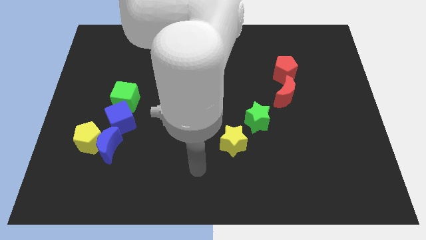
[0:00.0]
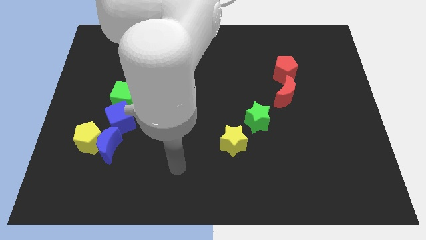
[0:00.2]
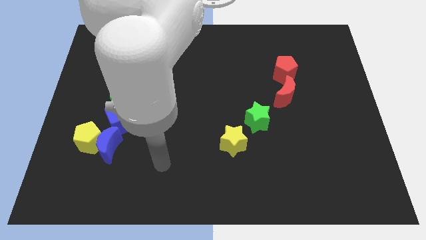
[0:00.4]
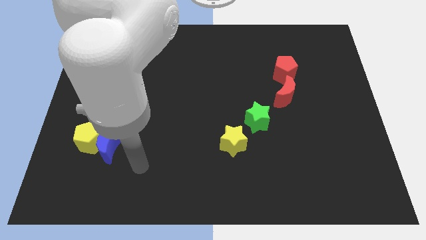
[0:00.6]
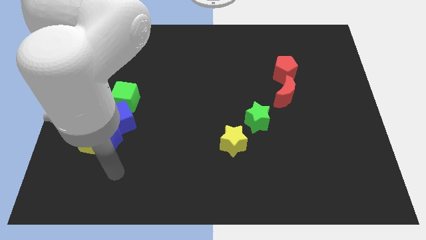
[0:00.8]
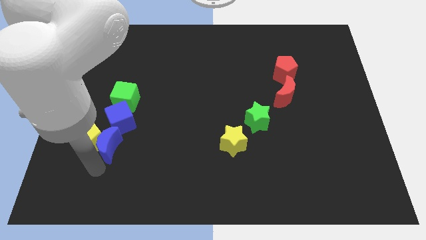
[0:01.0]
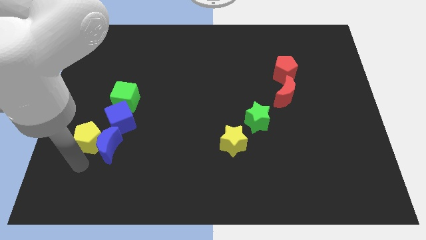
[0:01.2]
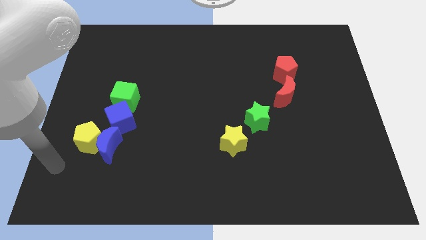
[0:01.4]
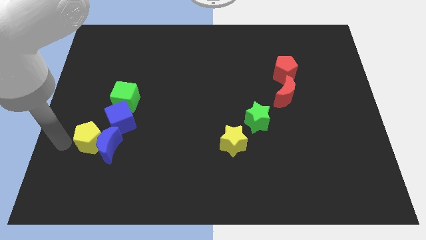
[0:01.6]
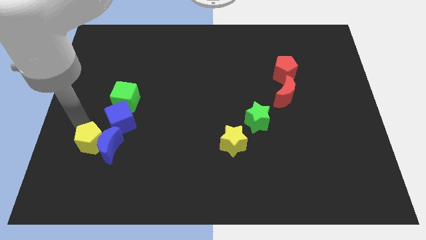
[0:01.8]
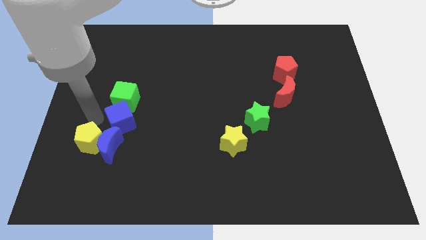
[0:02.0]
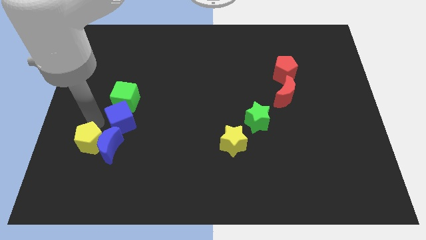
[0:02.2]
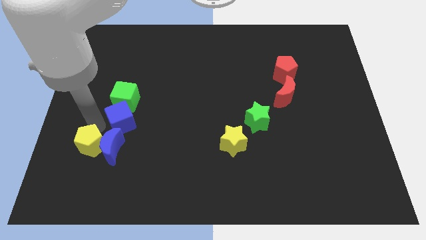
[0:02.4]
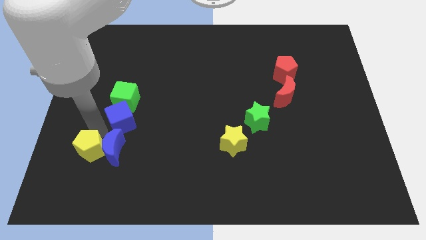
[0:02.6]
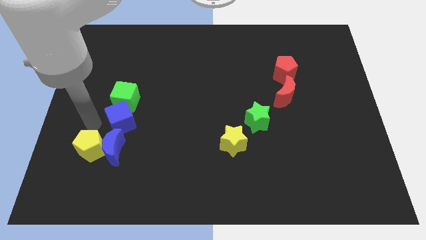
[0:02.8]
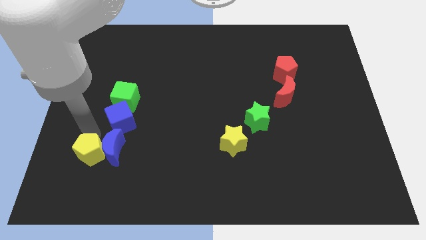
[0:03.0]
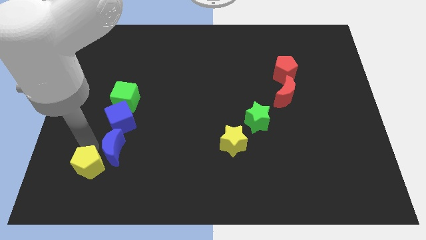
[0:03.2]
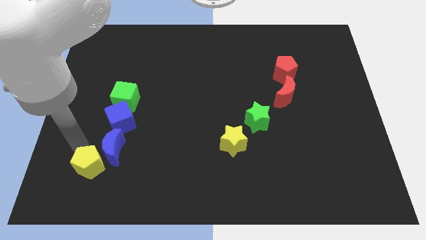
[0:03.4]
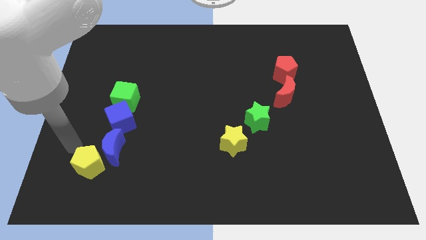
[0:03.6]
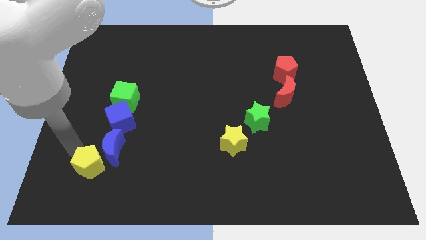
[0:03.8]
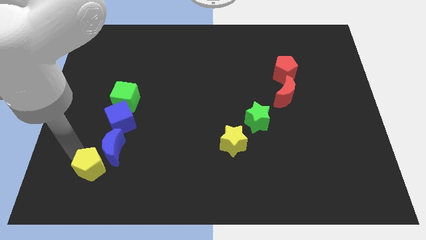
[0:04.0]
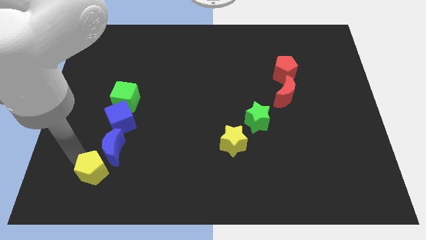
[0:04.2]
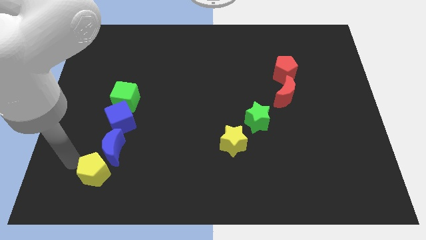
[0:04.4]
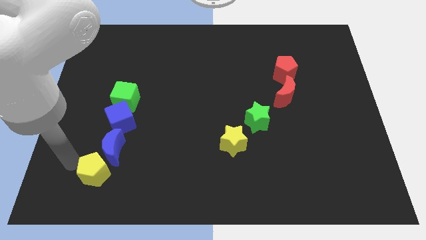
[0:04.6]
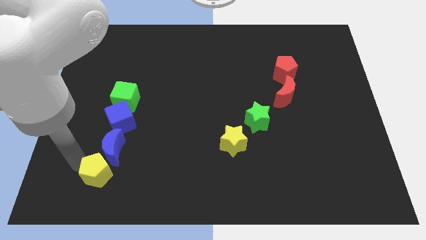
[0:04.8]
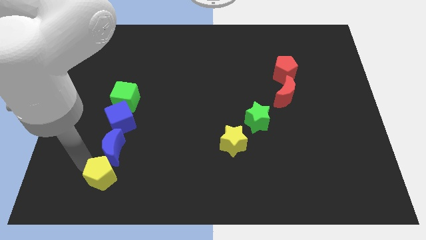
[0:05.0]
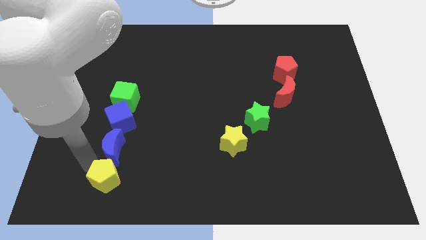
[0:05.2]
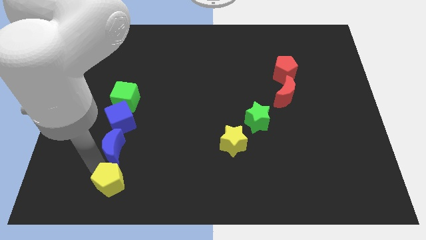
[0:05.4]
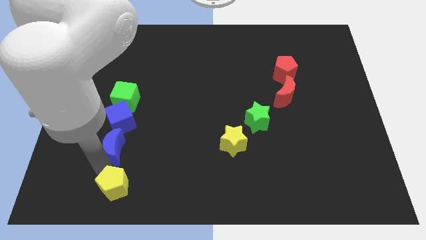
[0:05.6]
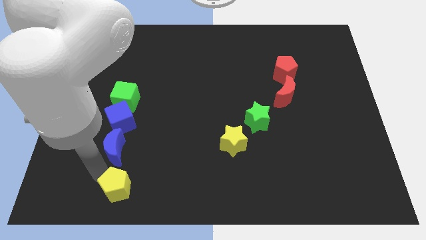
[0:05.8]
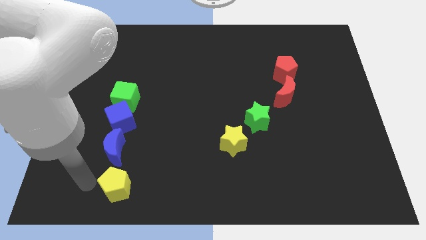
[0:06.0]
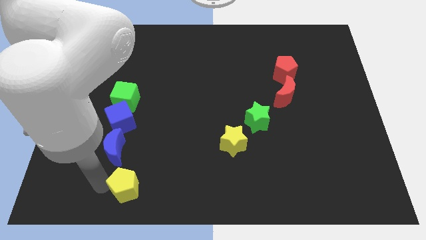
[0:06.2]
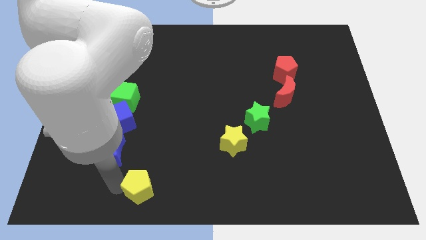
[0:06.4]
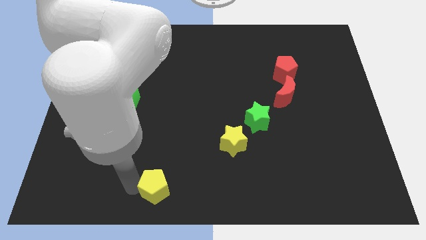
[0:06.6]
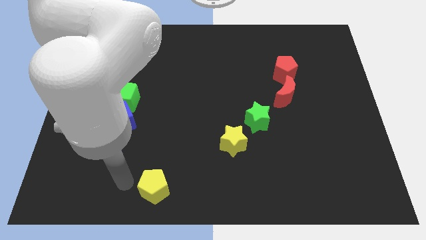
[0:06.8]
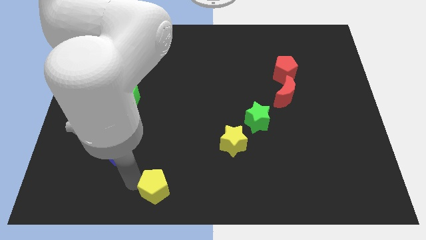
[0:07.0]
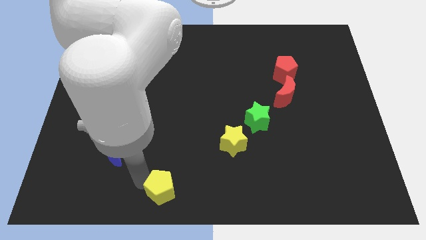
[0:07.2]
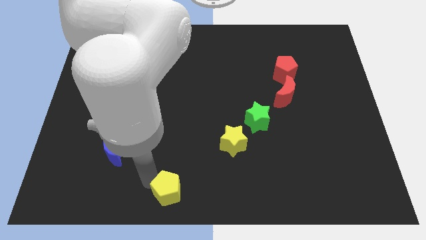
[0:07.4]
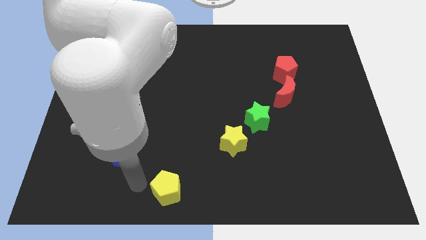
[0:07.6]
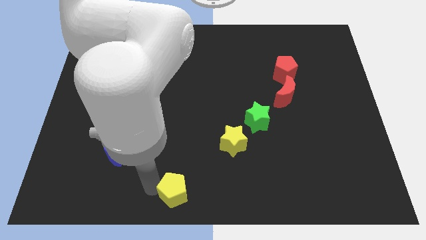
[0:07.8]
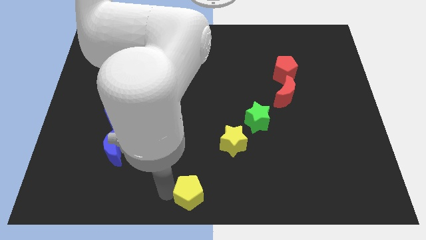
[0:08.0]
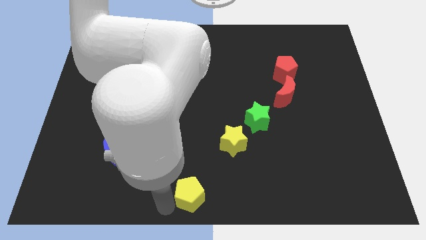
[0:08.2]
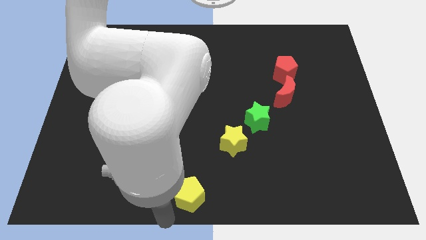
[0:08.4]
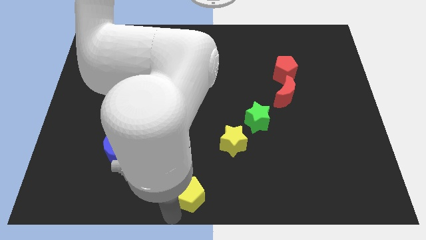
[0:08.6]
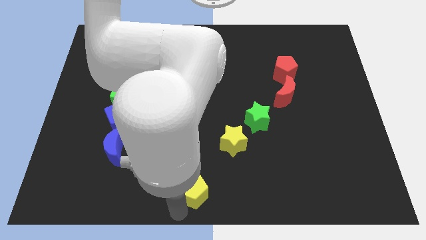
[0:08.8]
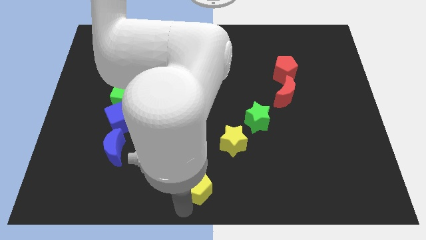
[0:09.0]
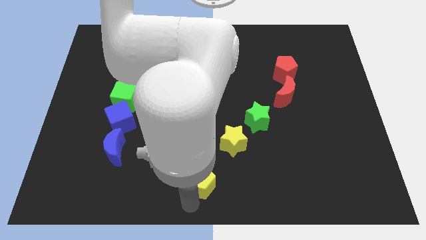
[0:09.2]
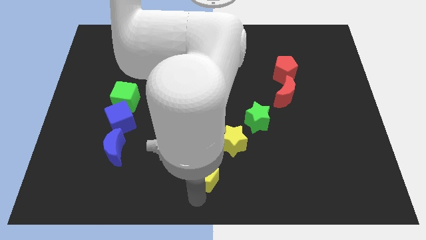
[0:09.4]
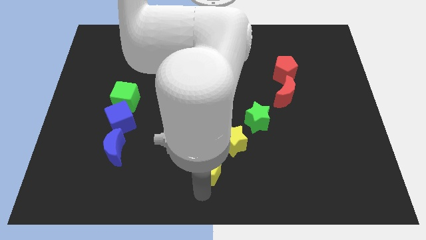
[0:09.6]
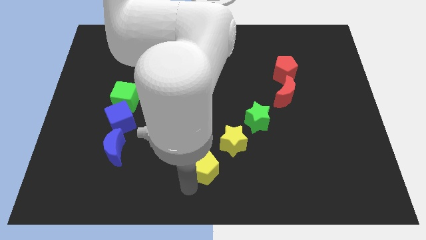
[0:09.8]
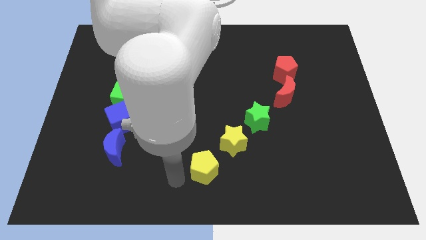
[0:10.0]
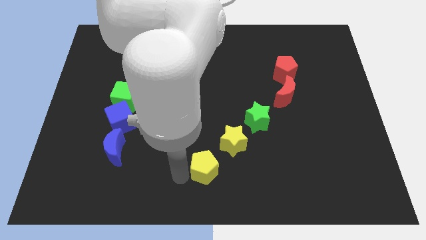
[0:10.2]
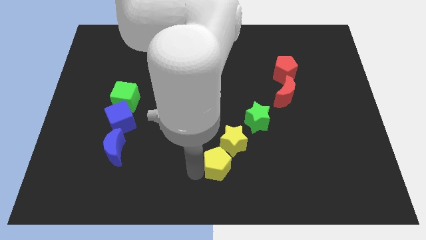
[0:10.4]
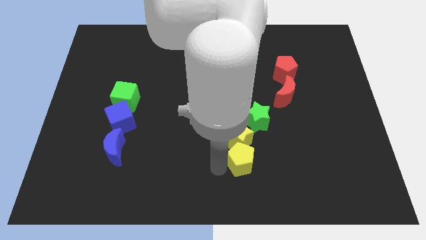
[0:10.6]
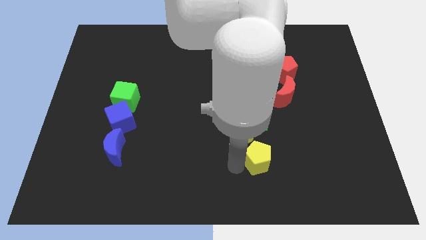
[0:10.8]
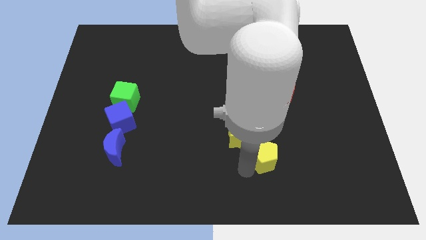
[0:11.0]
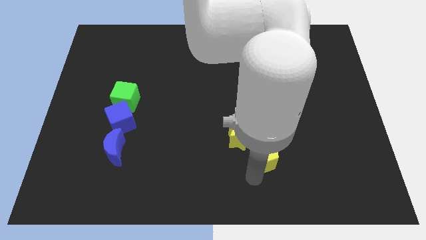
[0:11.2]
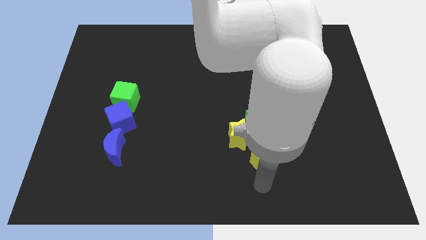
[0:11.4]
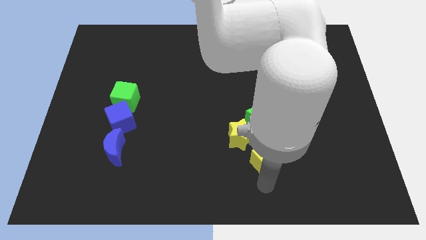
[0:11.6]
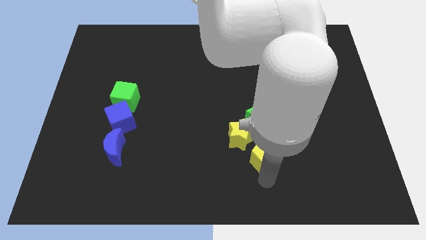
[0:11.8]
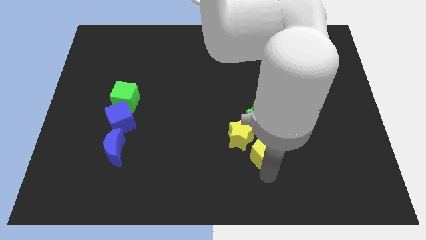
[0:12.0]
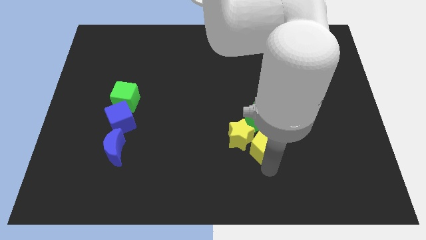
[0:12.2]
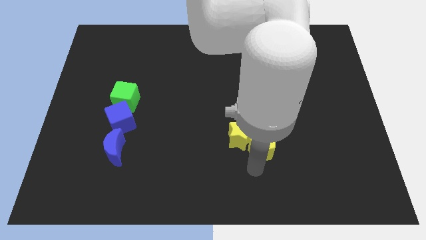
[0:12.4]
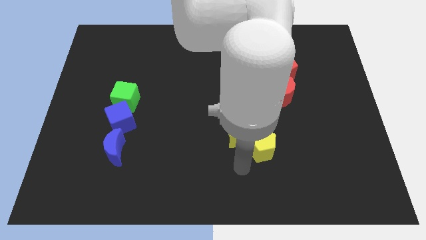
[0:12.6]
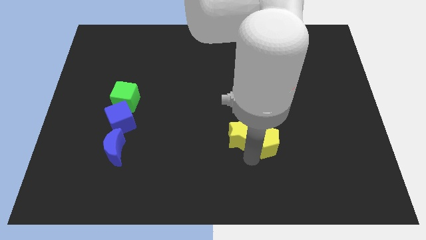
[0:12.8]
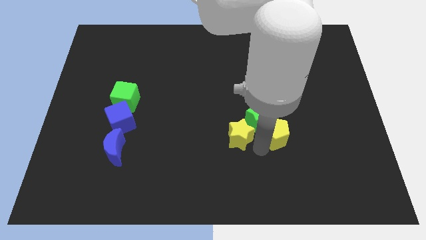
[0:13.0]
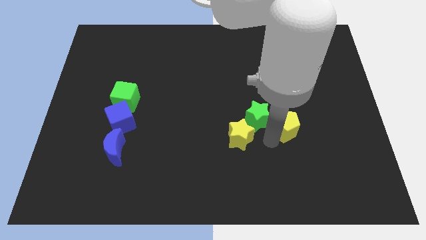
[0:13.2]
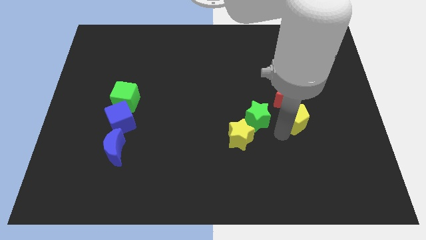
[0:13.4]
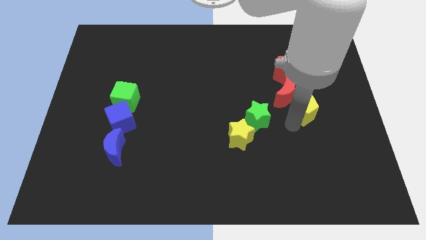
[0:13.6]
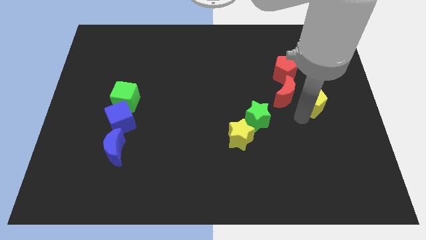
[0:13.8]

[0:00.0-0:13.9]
move the yellow pentagon to the bottom right side of the red pentagon

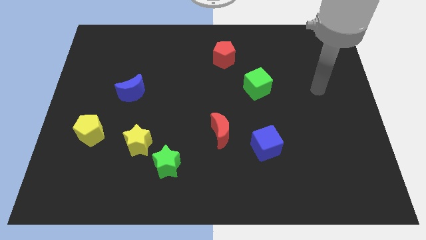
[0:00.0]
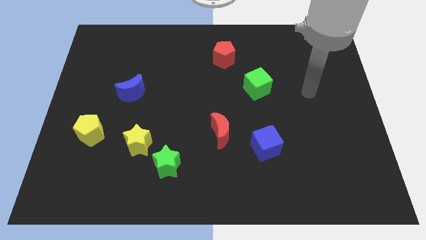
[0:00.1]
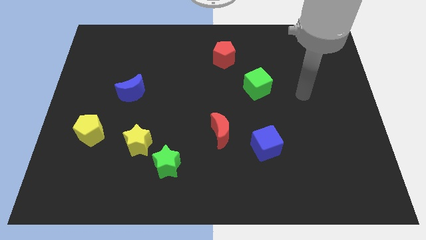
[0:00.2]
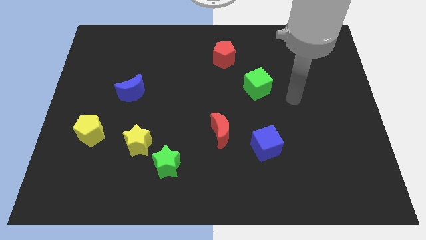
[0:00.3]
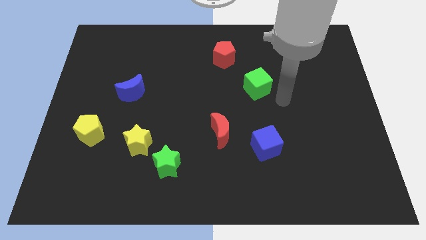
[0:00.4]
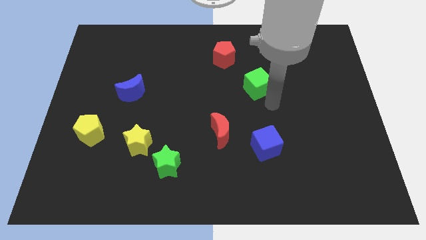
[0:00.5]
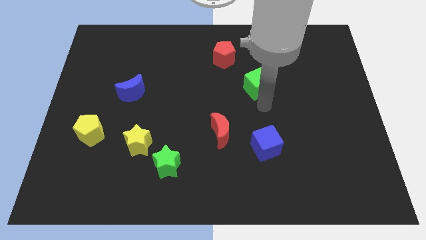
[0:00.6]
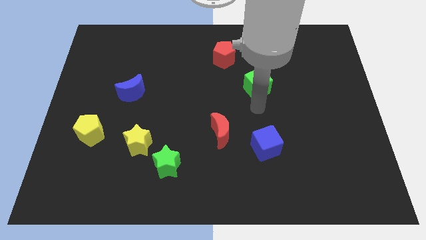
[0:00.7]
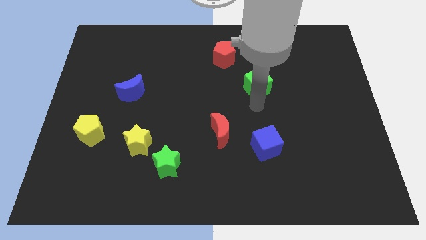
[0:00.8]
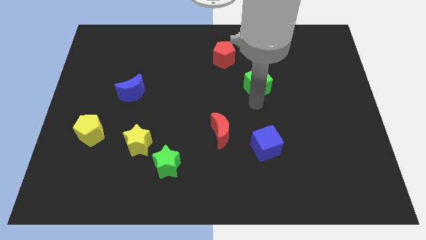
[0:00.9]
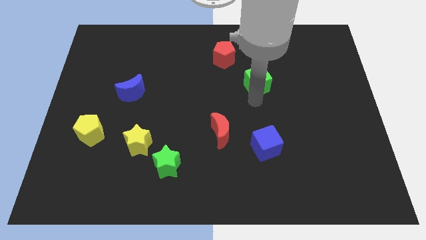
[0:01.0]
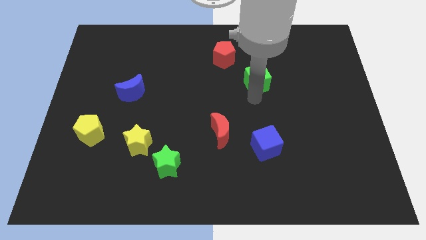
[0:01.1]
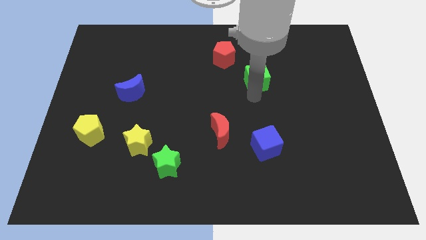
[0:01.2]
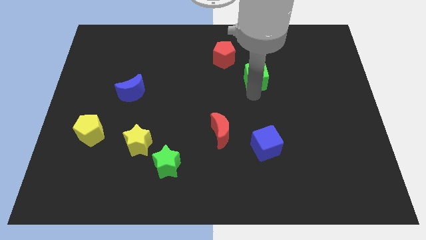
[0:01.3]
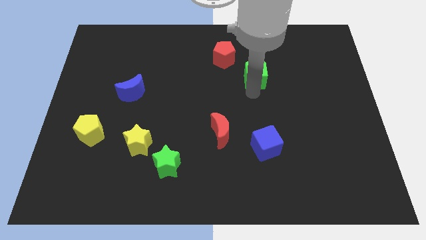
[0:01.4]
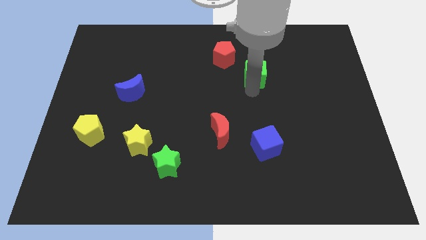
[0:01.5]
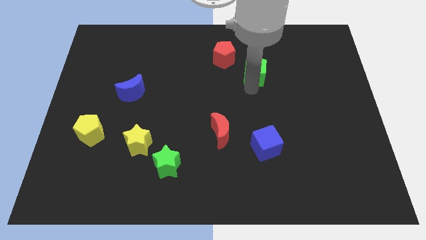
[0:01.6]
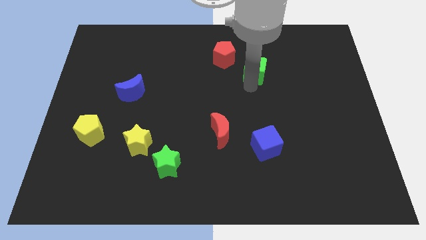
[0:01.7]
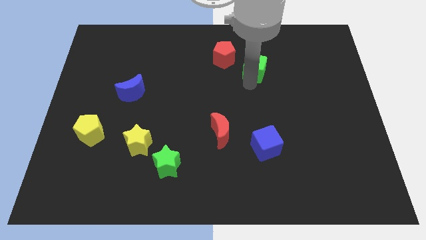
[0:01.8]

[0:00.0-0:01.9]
move the green cube to the right side of the red pentagon
